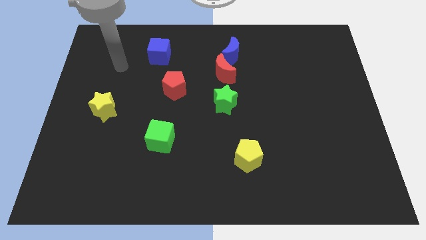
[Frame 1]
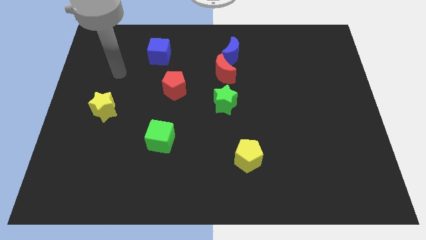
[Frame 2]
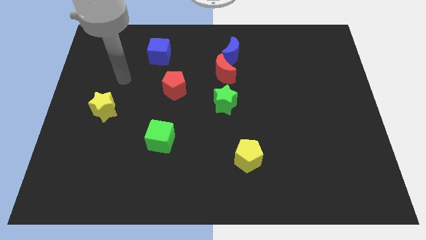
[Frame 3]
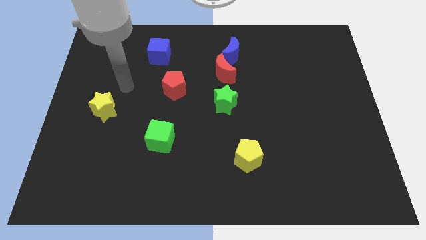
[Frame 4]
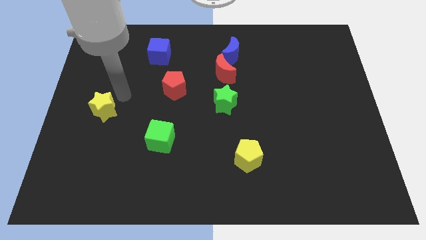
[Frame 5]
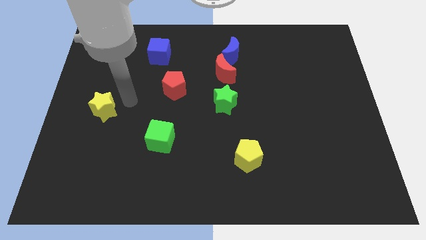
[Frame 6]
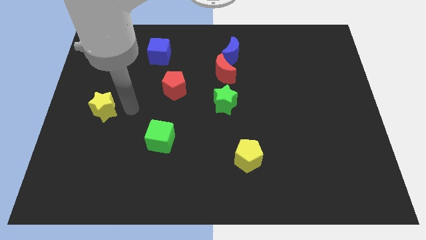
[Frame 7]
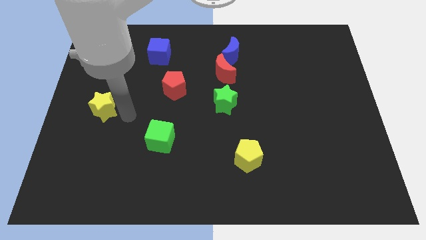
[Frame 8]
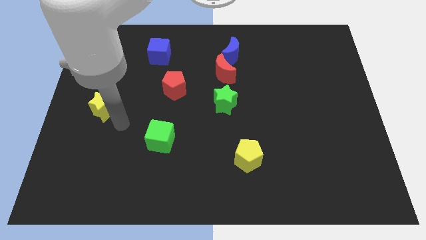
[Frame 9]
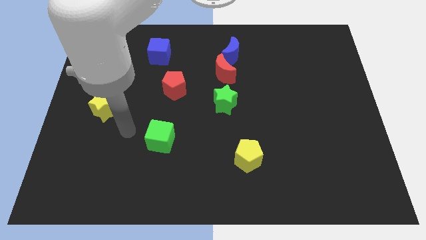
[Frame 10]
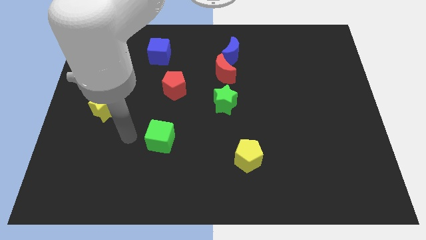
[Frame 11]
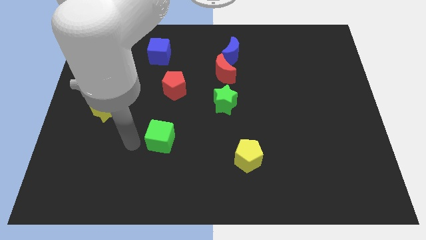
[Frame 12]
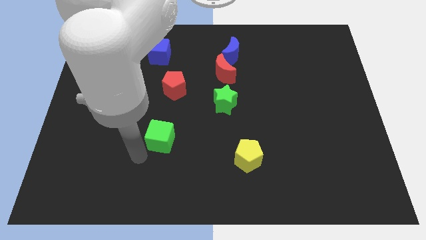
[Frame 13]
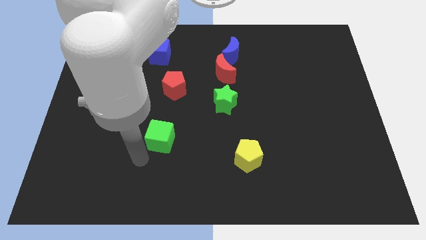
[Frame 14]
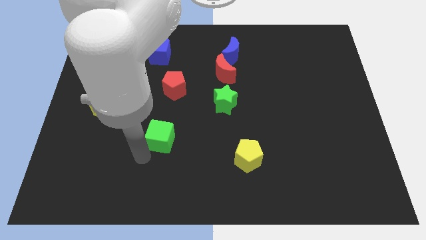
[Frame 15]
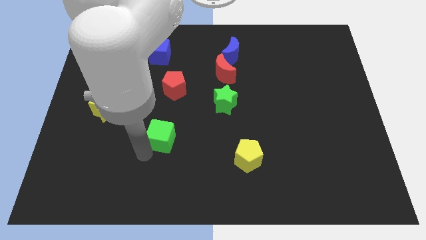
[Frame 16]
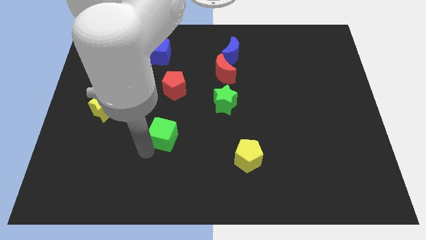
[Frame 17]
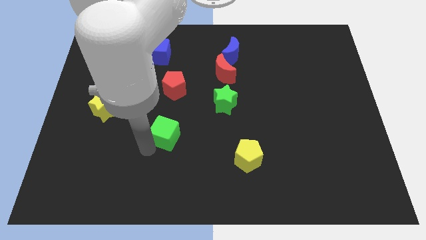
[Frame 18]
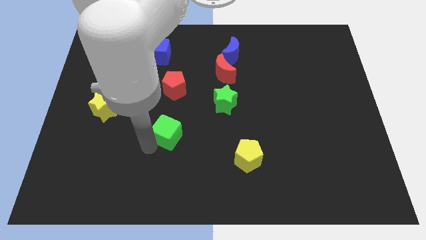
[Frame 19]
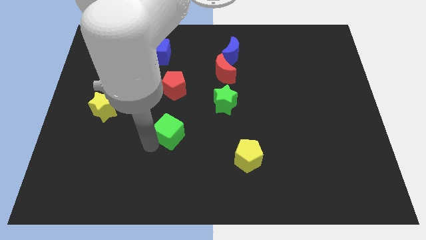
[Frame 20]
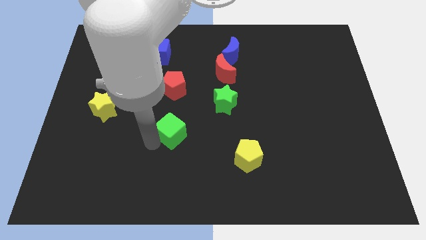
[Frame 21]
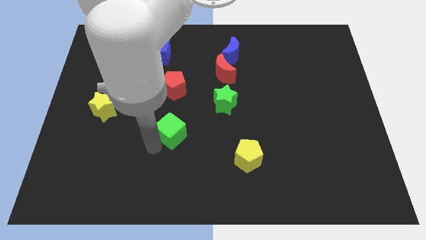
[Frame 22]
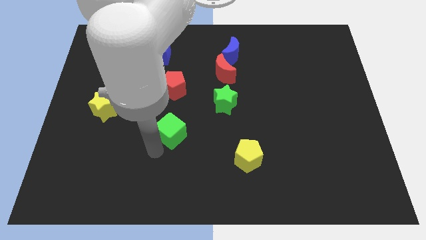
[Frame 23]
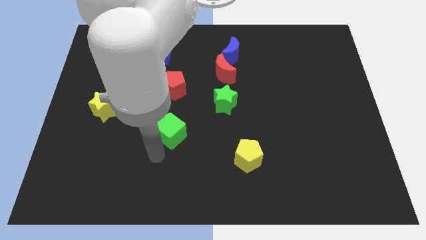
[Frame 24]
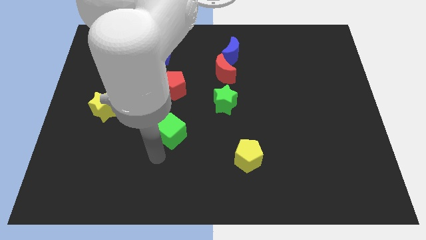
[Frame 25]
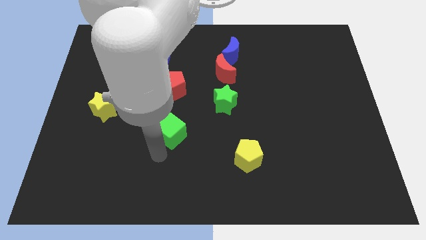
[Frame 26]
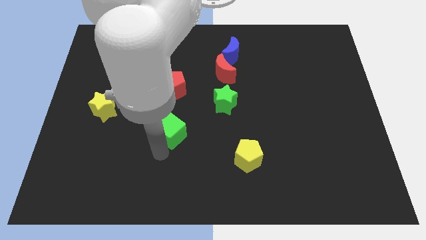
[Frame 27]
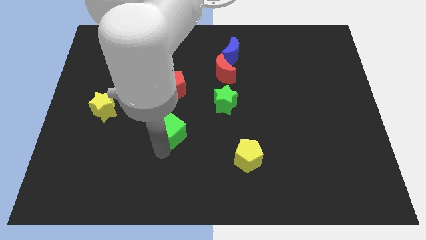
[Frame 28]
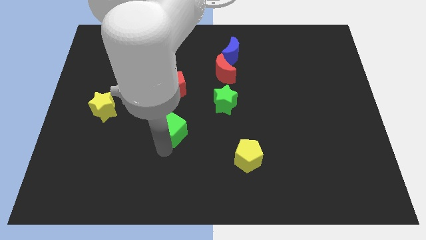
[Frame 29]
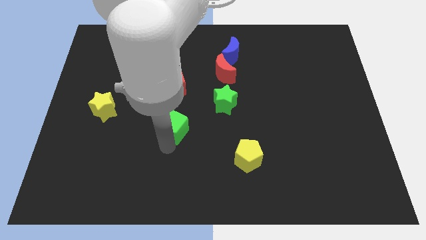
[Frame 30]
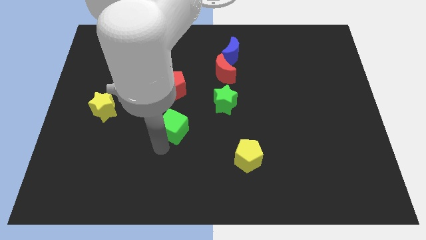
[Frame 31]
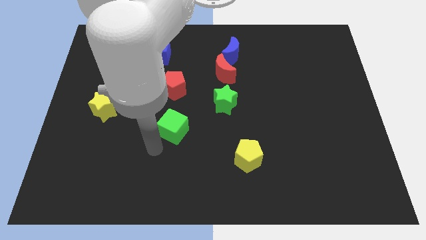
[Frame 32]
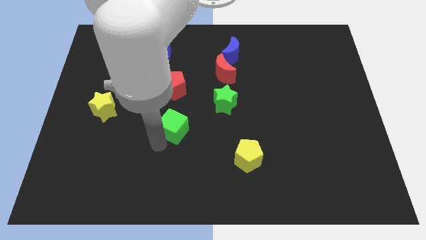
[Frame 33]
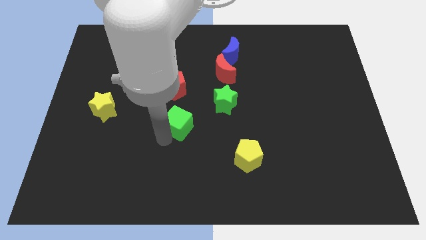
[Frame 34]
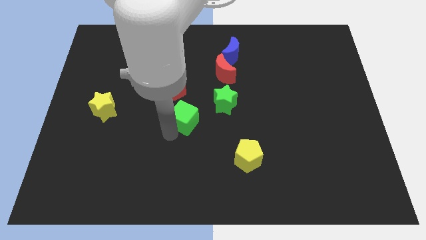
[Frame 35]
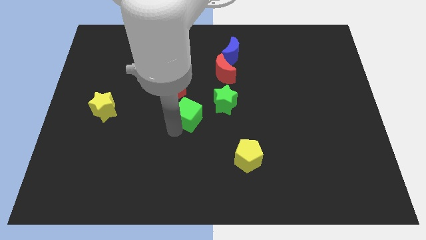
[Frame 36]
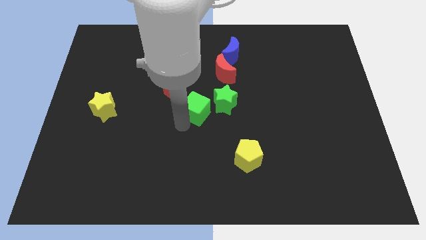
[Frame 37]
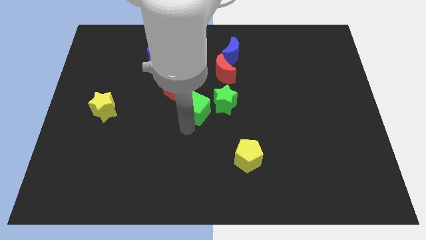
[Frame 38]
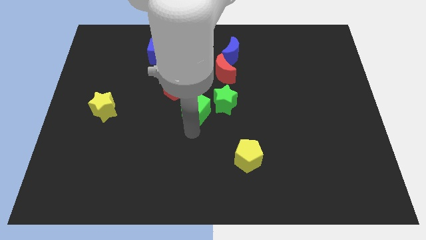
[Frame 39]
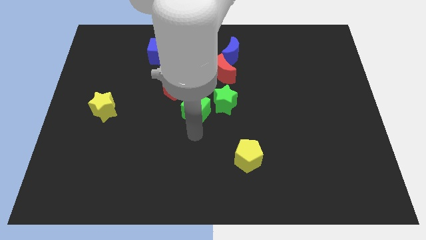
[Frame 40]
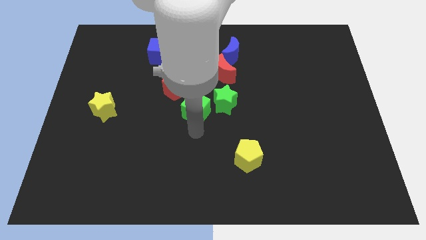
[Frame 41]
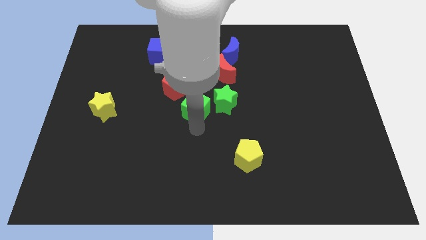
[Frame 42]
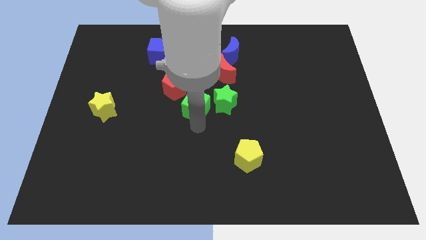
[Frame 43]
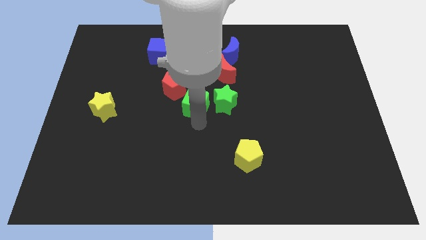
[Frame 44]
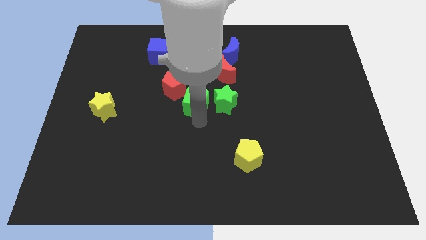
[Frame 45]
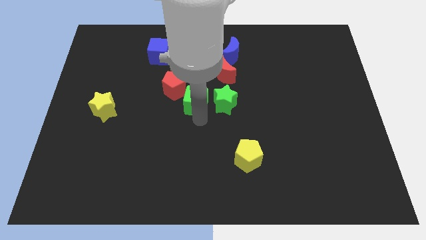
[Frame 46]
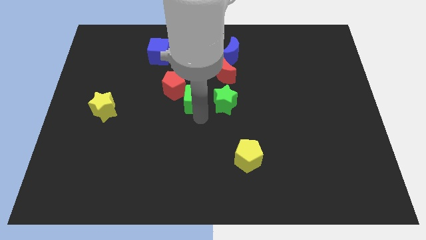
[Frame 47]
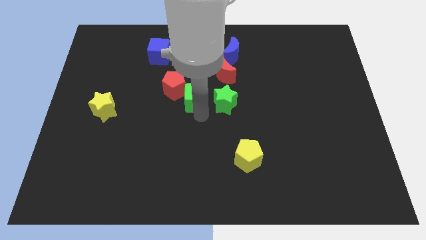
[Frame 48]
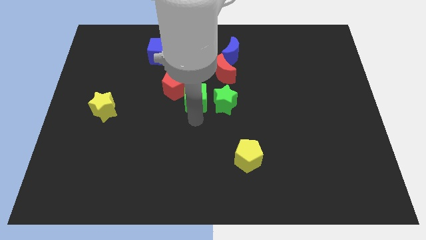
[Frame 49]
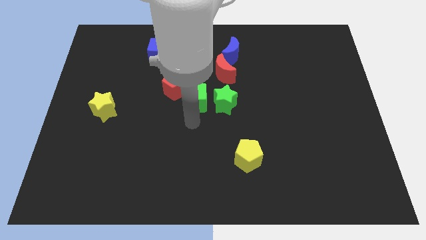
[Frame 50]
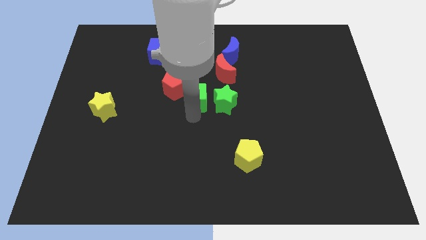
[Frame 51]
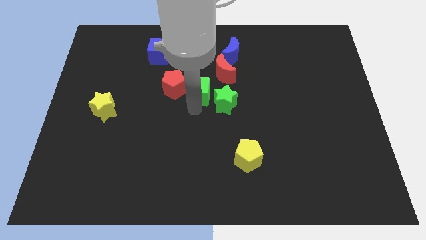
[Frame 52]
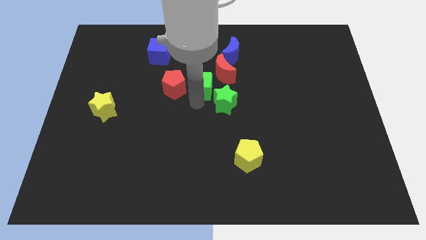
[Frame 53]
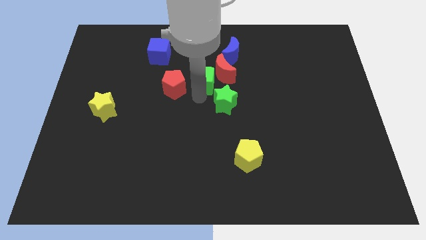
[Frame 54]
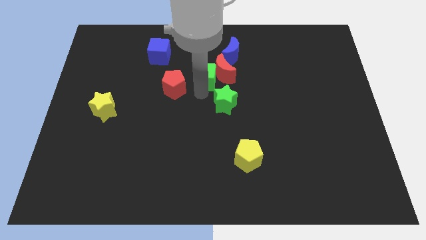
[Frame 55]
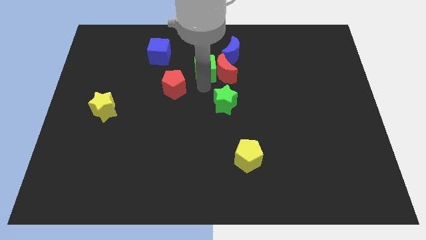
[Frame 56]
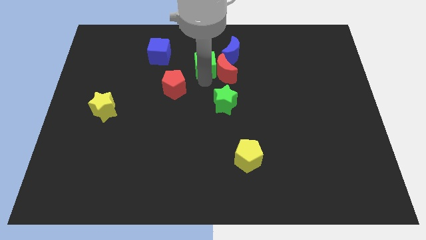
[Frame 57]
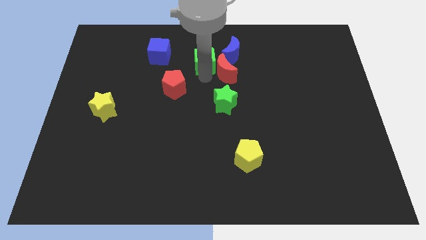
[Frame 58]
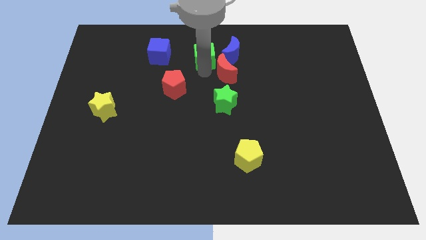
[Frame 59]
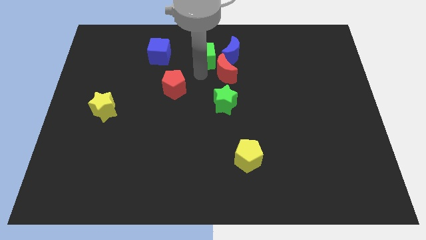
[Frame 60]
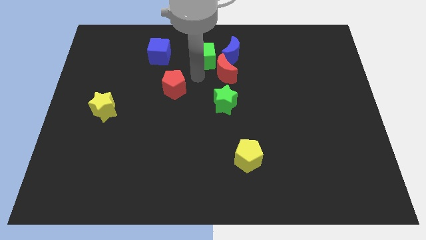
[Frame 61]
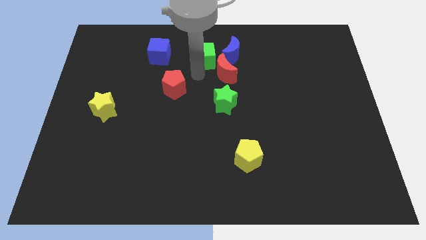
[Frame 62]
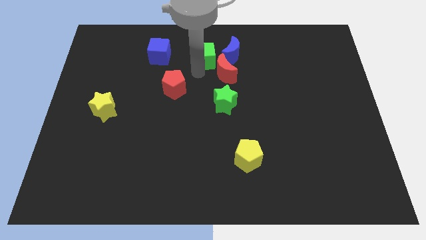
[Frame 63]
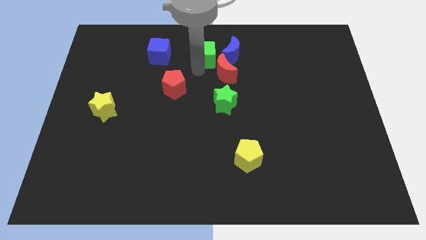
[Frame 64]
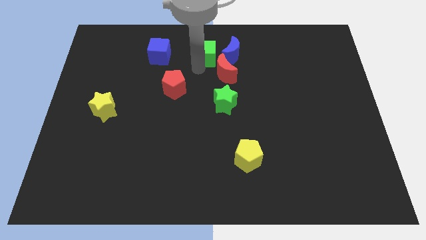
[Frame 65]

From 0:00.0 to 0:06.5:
slide the green cube to the top
